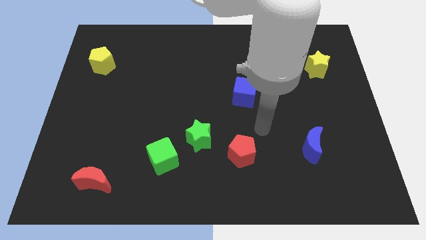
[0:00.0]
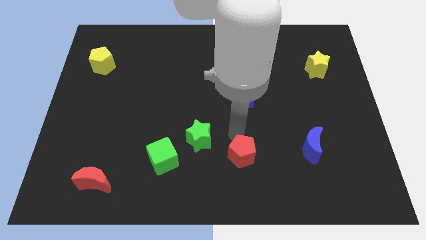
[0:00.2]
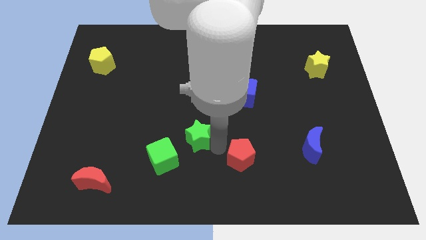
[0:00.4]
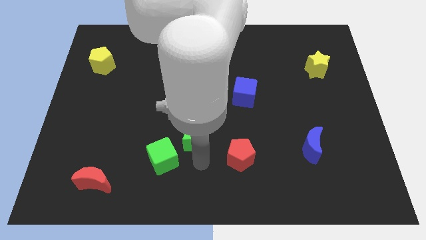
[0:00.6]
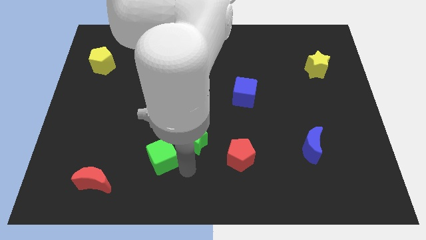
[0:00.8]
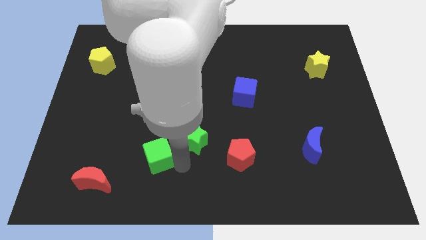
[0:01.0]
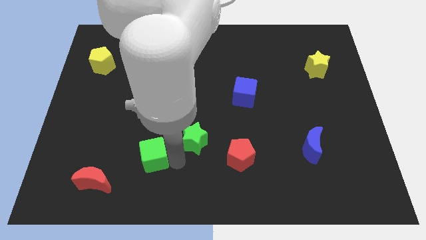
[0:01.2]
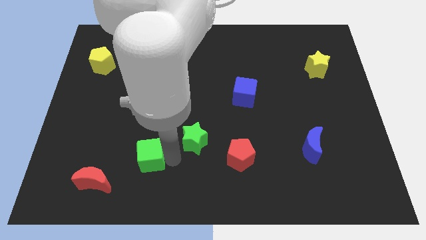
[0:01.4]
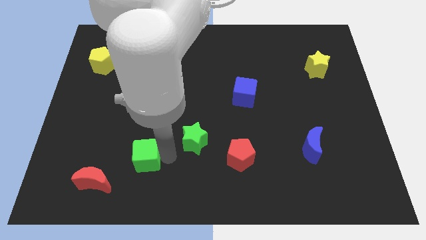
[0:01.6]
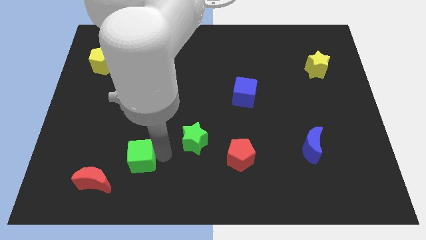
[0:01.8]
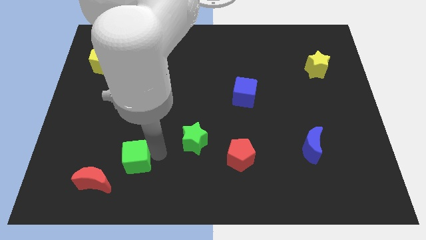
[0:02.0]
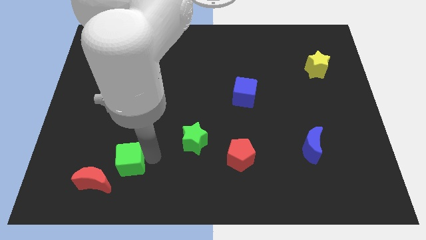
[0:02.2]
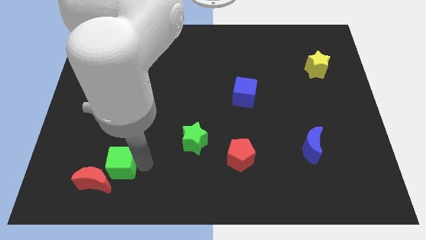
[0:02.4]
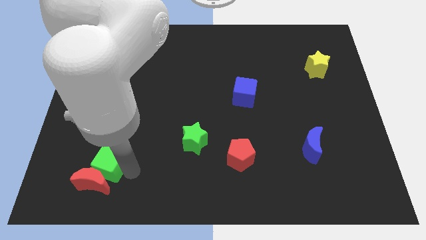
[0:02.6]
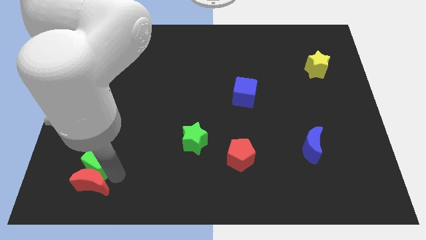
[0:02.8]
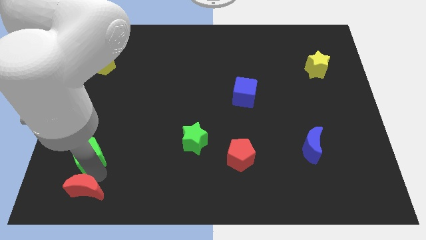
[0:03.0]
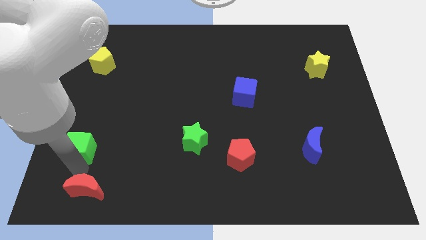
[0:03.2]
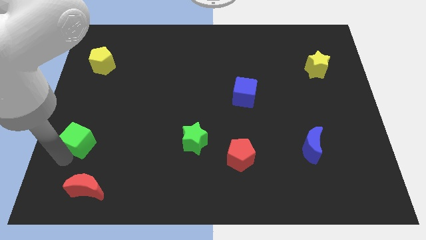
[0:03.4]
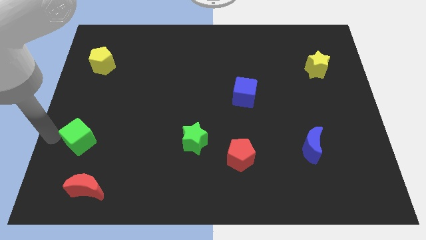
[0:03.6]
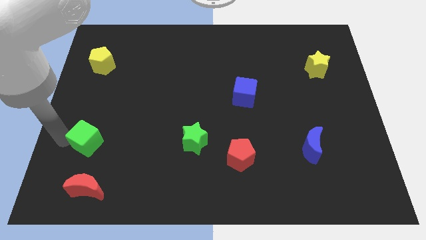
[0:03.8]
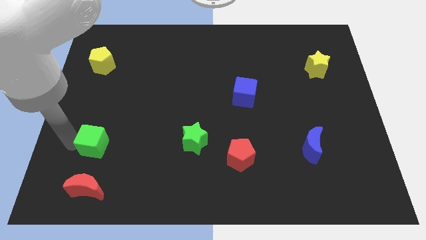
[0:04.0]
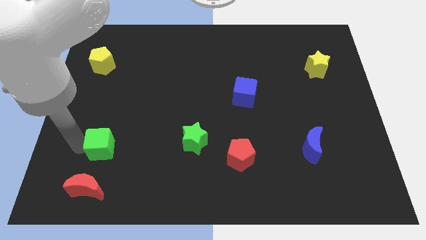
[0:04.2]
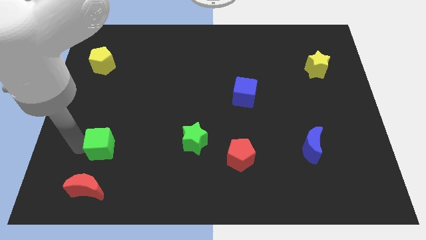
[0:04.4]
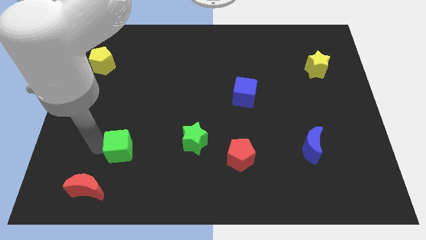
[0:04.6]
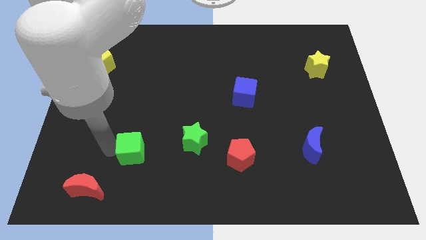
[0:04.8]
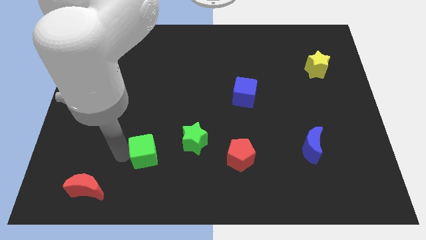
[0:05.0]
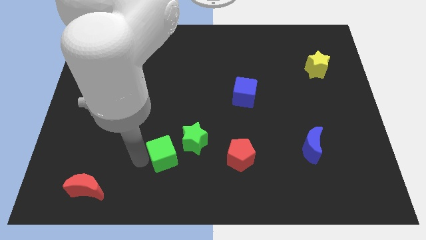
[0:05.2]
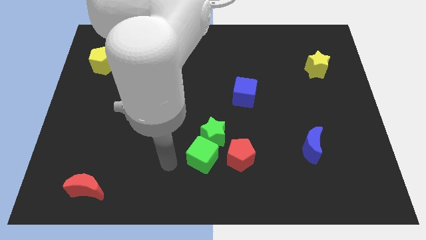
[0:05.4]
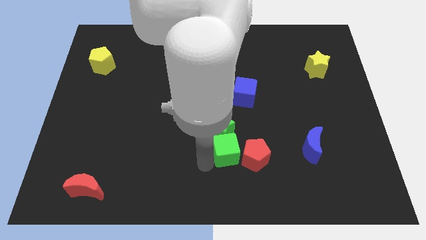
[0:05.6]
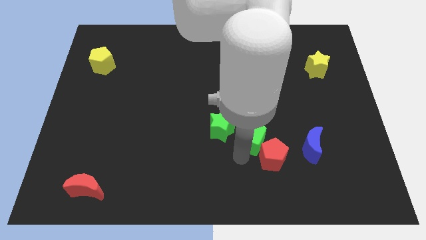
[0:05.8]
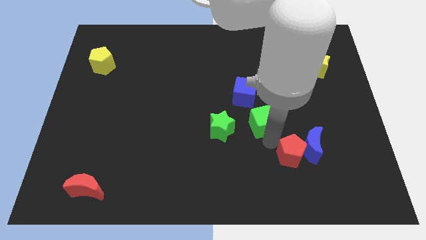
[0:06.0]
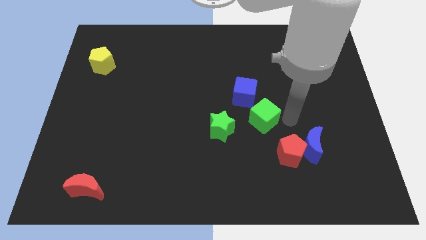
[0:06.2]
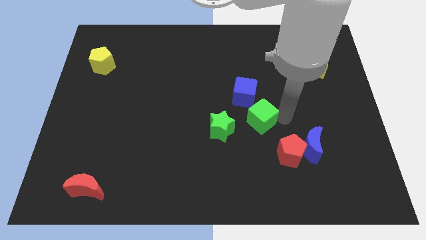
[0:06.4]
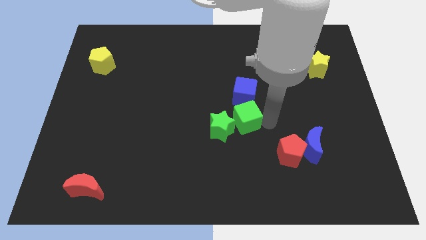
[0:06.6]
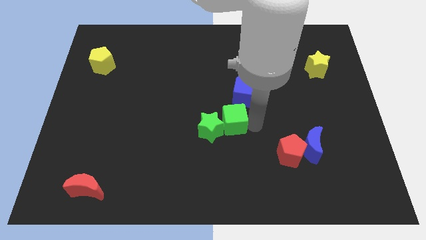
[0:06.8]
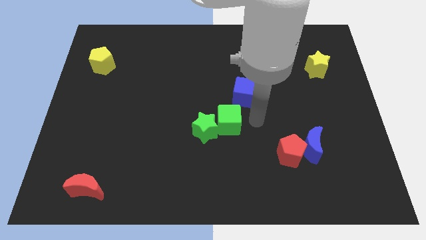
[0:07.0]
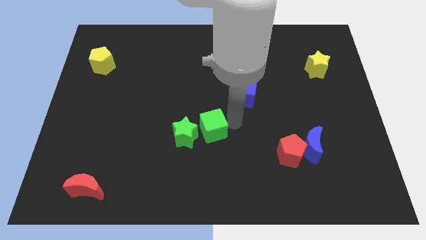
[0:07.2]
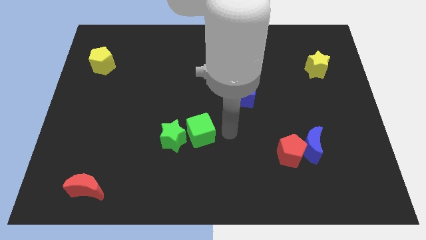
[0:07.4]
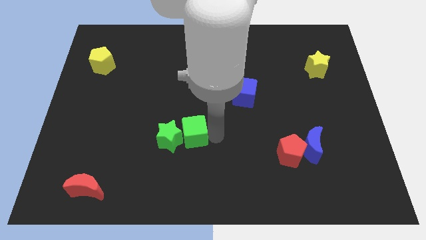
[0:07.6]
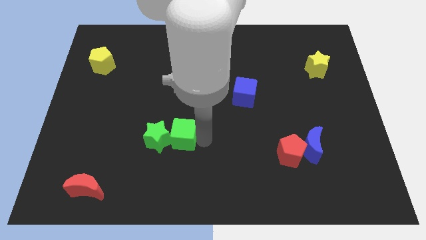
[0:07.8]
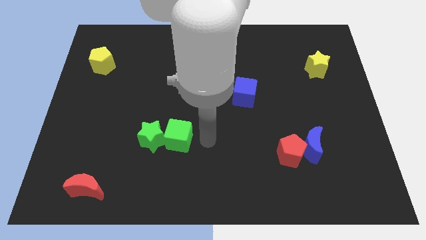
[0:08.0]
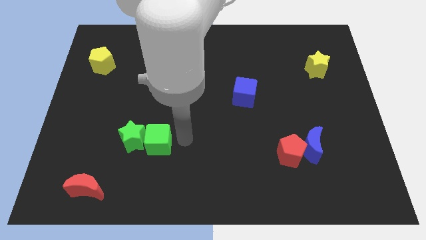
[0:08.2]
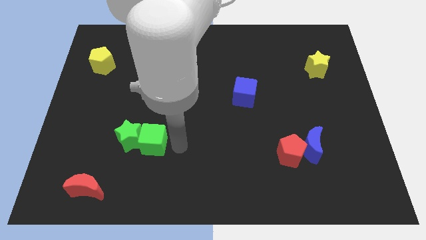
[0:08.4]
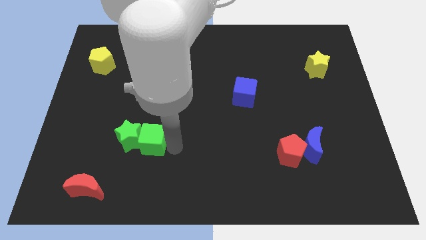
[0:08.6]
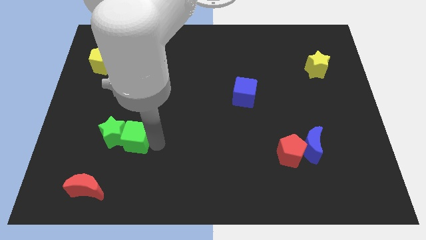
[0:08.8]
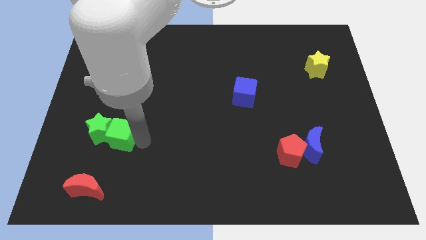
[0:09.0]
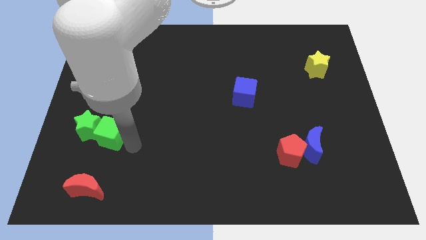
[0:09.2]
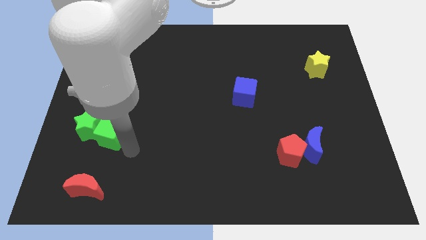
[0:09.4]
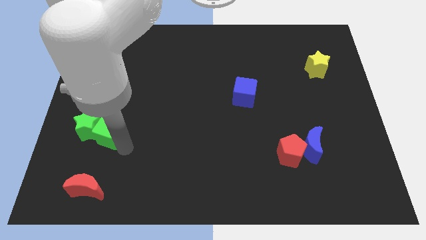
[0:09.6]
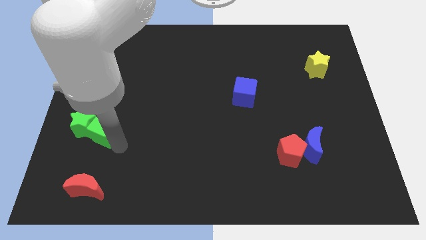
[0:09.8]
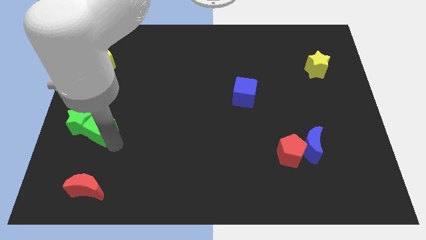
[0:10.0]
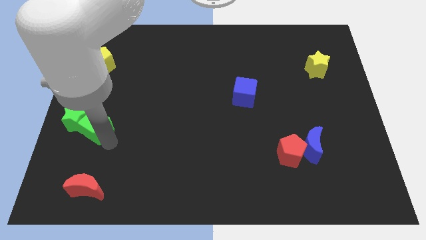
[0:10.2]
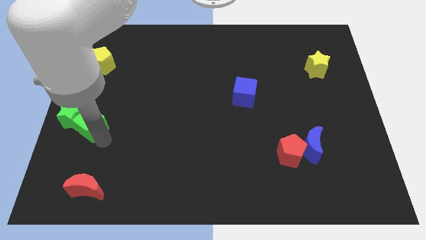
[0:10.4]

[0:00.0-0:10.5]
push the green cube to the left side

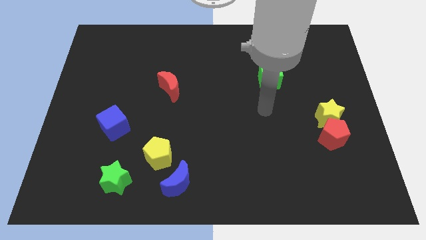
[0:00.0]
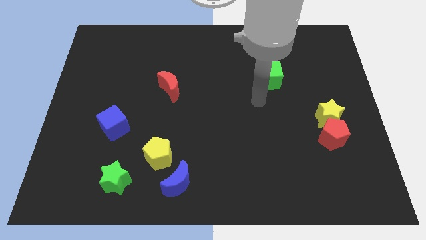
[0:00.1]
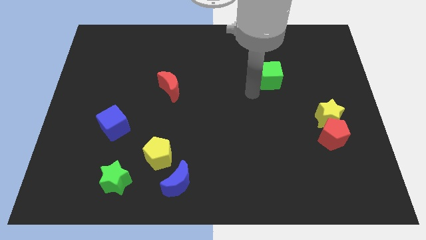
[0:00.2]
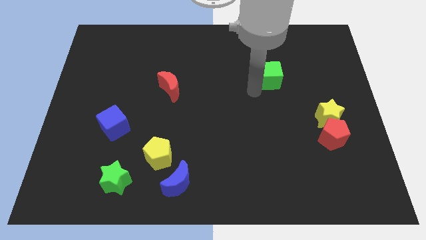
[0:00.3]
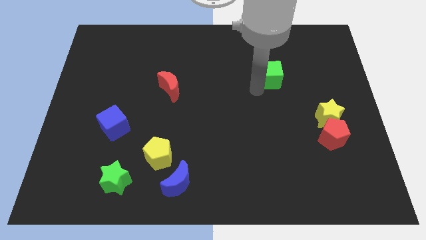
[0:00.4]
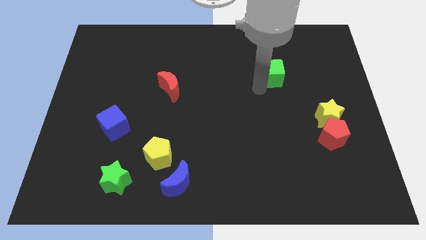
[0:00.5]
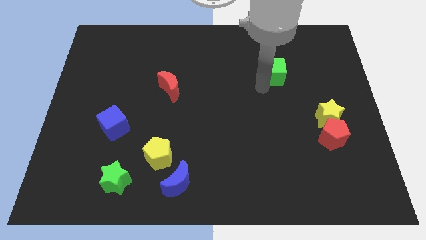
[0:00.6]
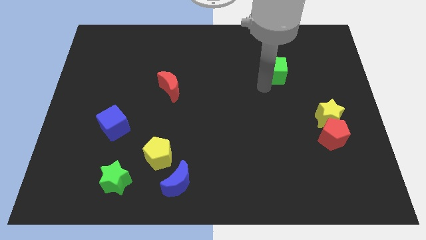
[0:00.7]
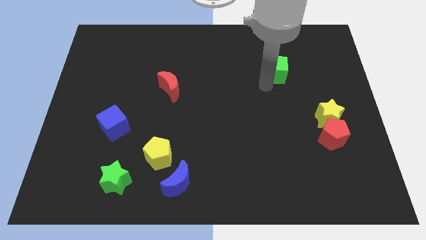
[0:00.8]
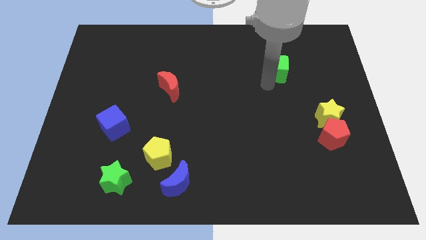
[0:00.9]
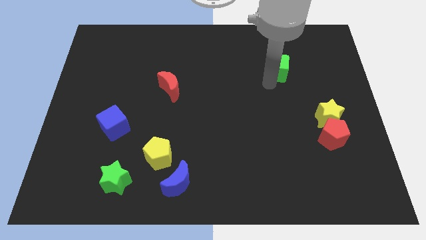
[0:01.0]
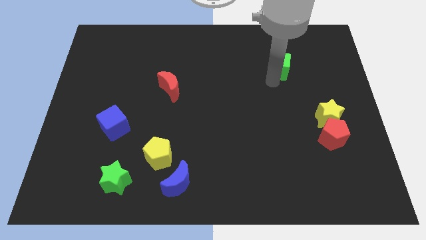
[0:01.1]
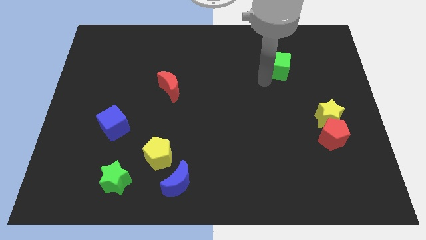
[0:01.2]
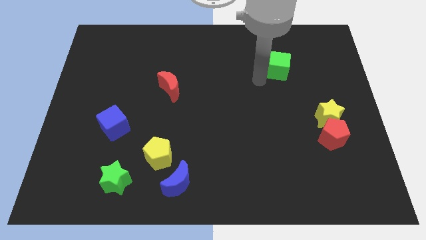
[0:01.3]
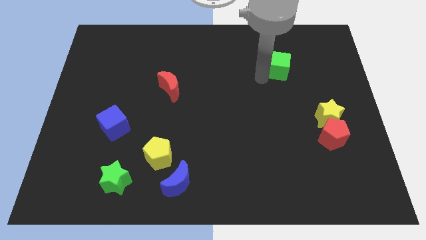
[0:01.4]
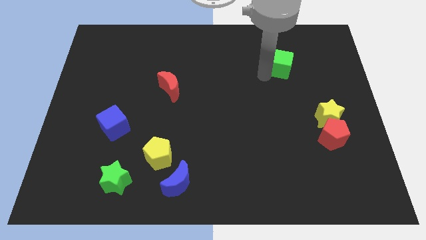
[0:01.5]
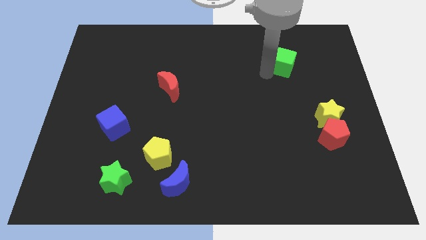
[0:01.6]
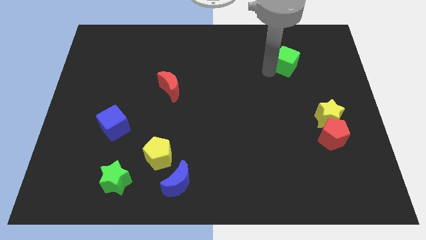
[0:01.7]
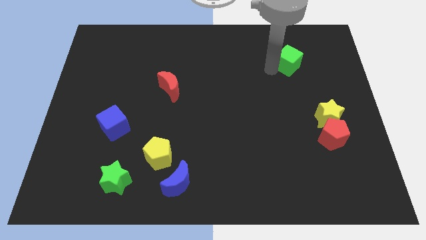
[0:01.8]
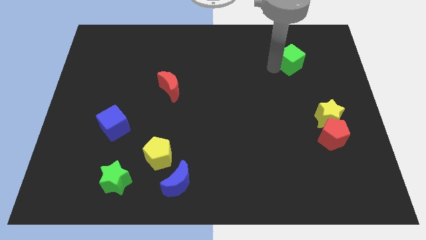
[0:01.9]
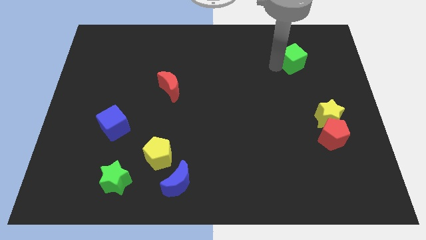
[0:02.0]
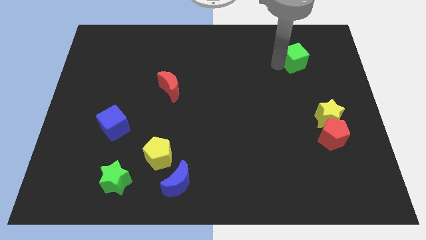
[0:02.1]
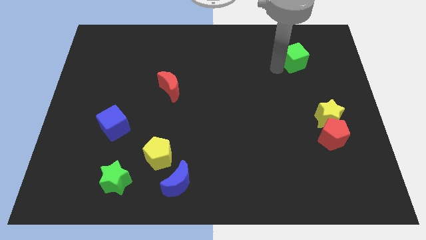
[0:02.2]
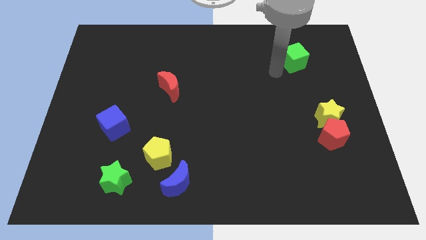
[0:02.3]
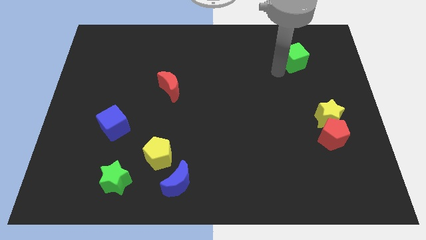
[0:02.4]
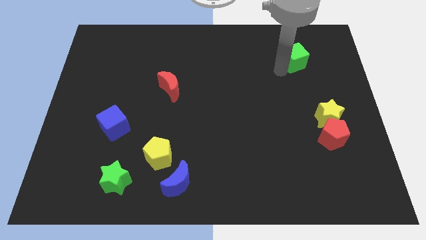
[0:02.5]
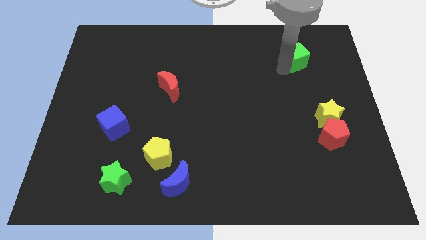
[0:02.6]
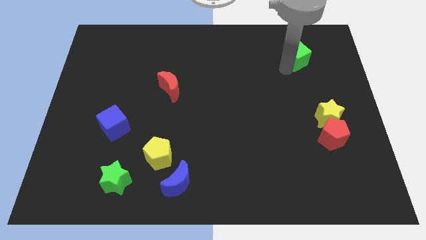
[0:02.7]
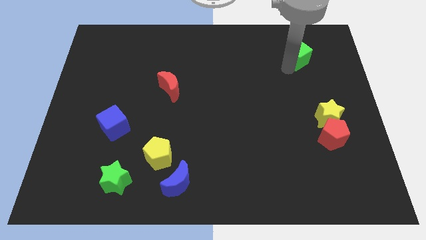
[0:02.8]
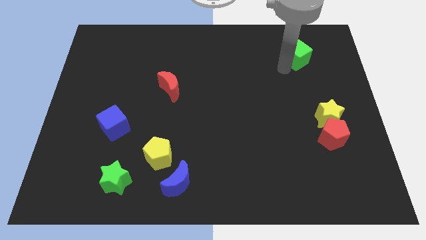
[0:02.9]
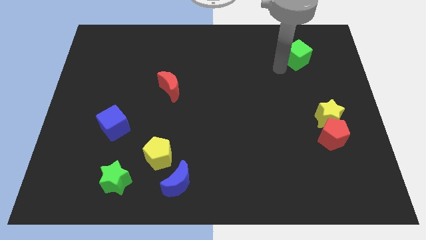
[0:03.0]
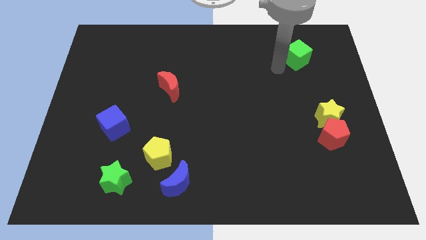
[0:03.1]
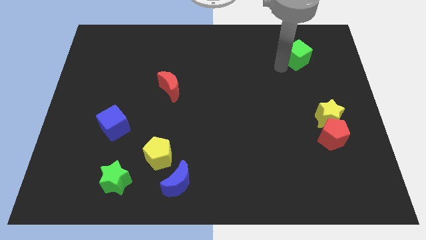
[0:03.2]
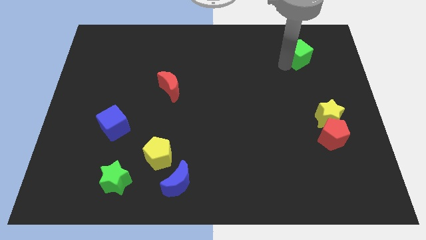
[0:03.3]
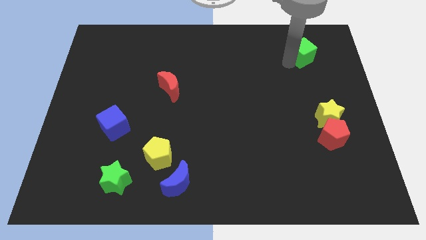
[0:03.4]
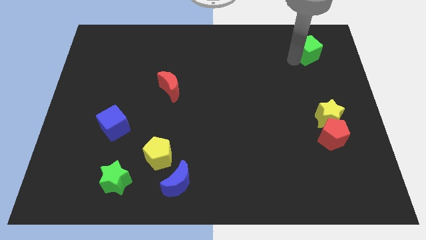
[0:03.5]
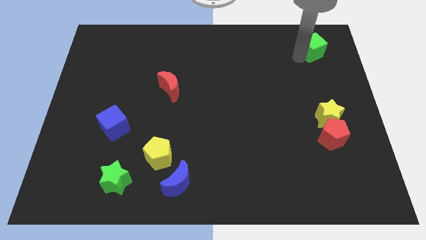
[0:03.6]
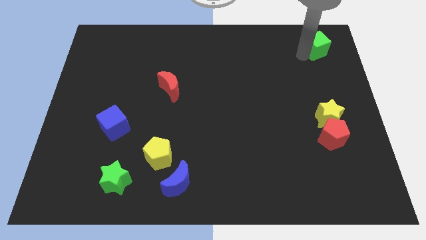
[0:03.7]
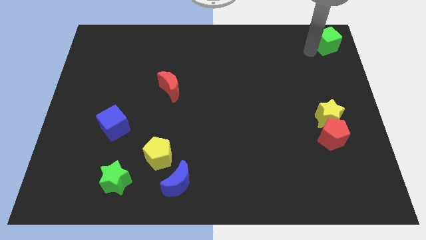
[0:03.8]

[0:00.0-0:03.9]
slide the green cube to the top right corner
